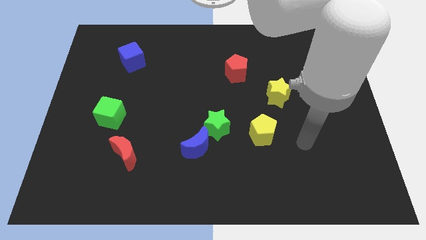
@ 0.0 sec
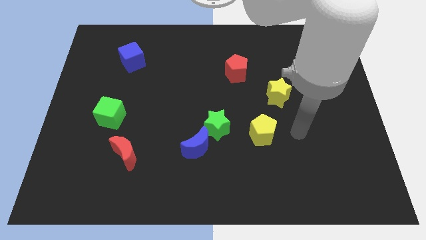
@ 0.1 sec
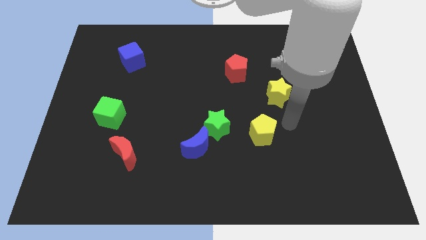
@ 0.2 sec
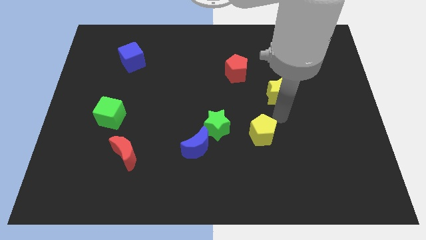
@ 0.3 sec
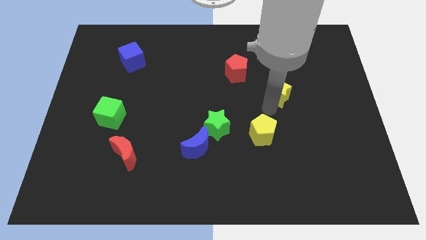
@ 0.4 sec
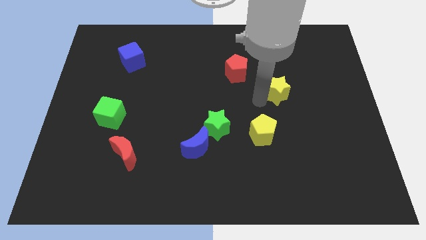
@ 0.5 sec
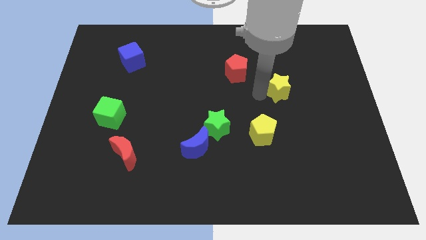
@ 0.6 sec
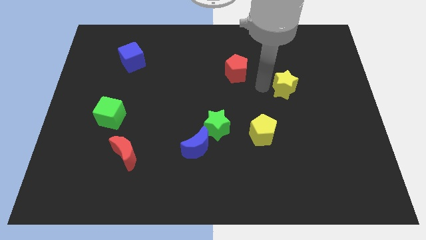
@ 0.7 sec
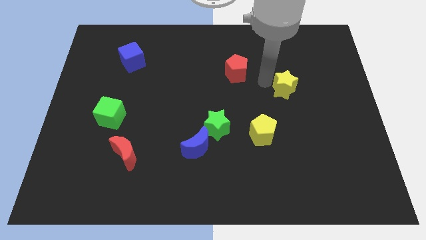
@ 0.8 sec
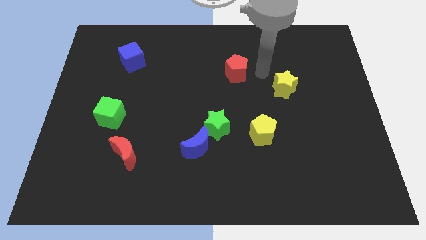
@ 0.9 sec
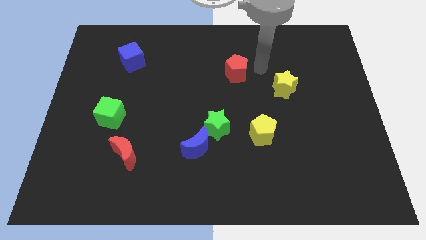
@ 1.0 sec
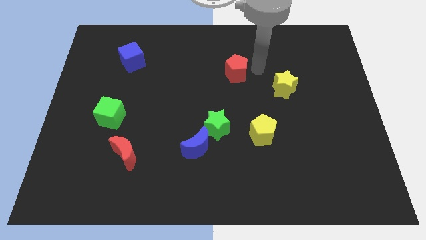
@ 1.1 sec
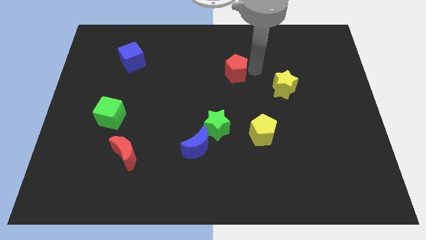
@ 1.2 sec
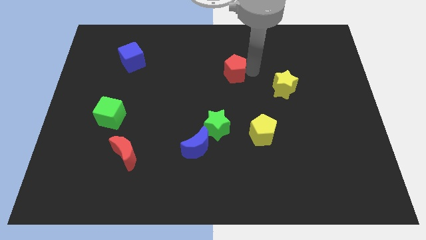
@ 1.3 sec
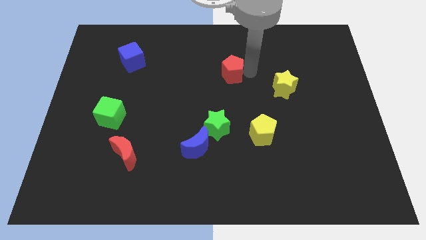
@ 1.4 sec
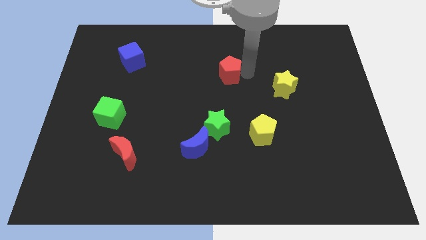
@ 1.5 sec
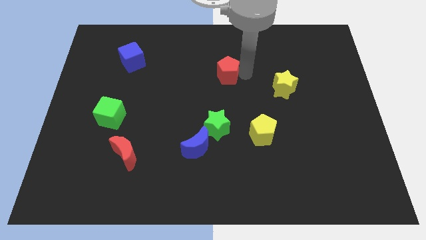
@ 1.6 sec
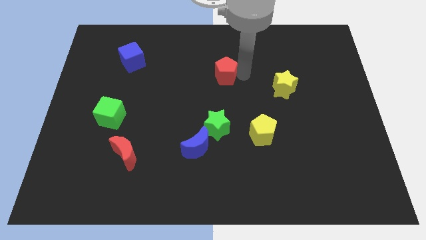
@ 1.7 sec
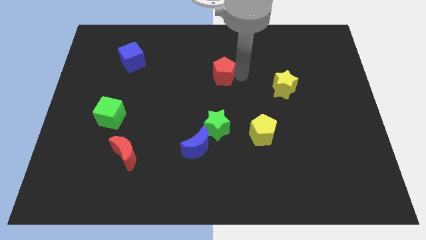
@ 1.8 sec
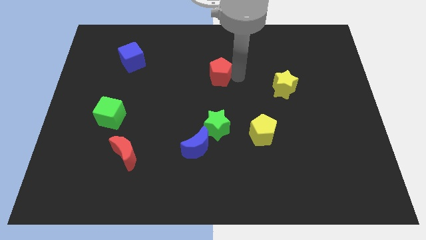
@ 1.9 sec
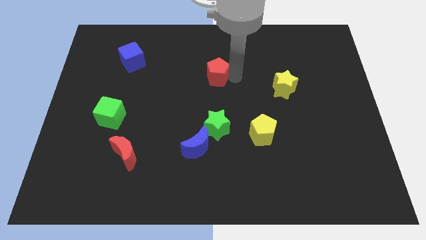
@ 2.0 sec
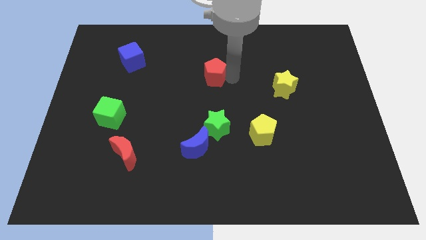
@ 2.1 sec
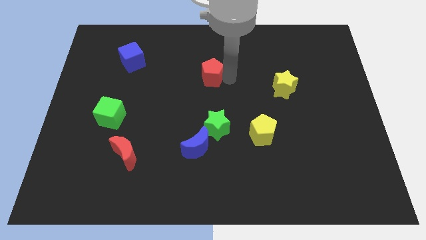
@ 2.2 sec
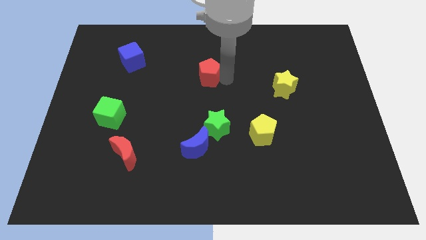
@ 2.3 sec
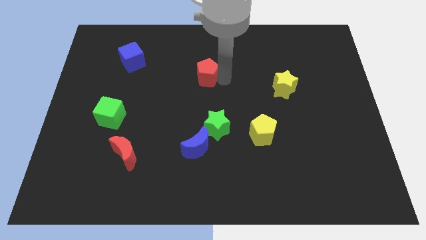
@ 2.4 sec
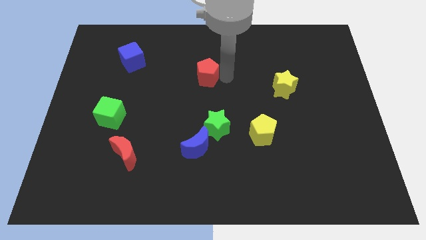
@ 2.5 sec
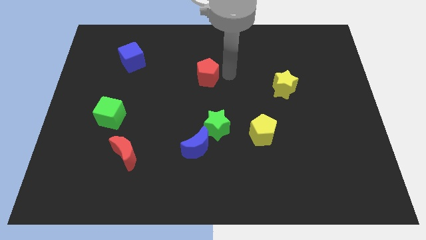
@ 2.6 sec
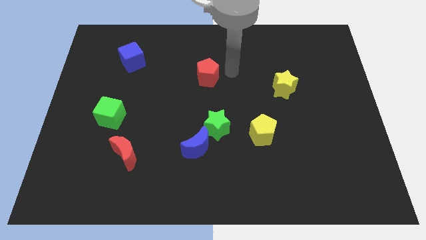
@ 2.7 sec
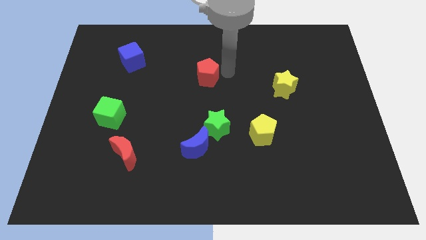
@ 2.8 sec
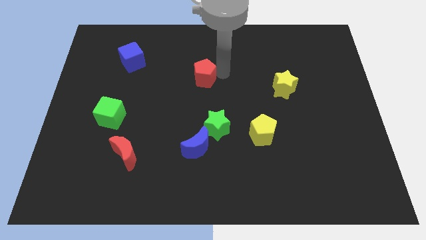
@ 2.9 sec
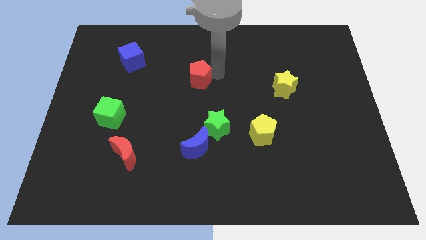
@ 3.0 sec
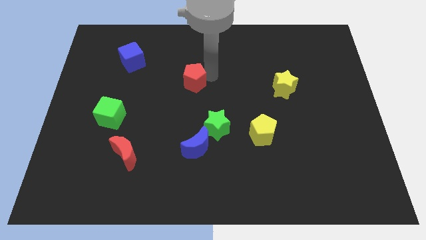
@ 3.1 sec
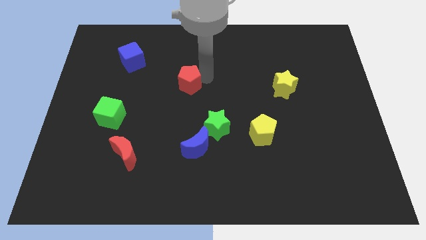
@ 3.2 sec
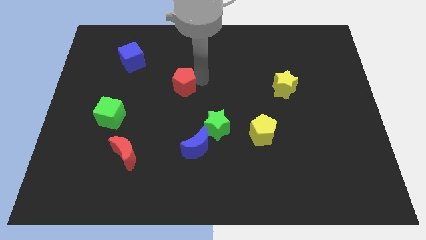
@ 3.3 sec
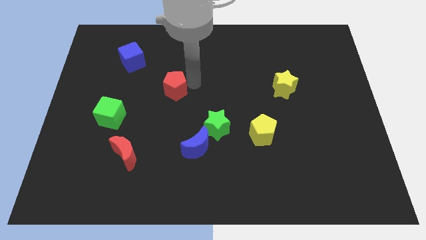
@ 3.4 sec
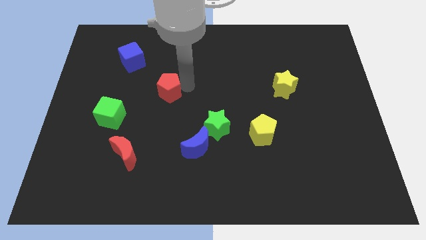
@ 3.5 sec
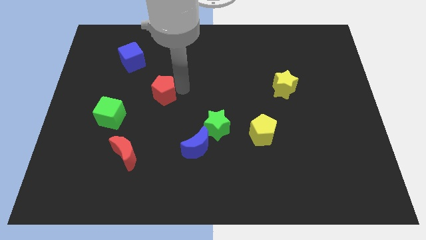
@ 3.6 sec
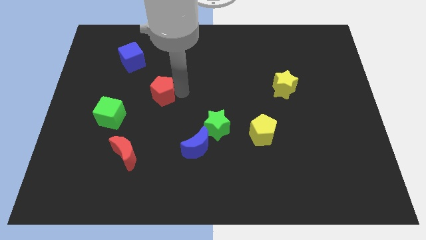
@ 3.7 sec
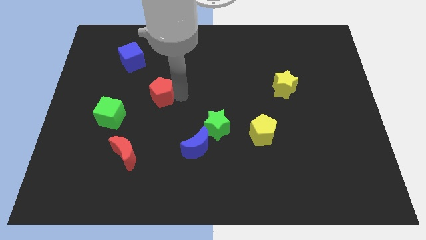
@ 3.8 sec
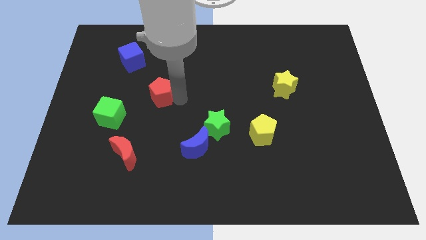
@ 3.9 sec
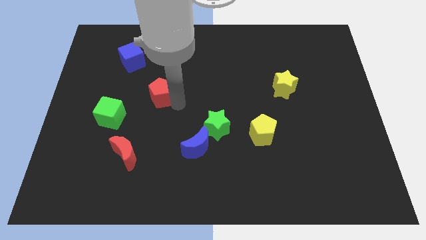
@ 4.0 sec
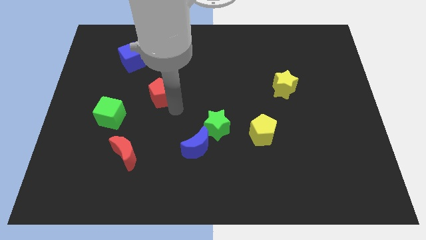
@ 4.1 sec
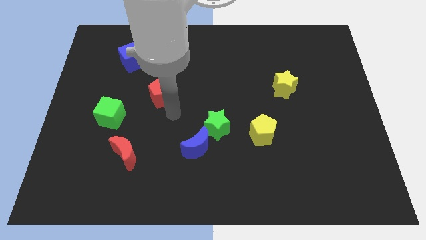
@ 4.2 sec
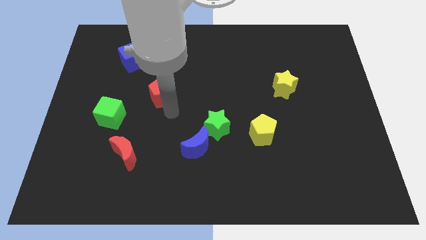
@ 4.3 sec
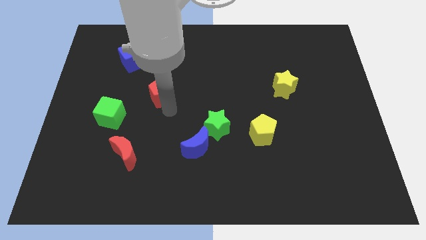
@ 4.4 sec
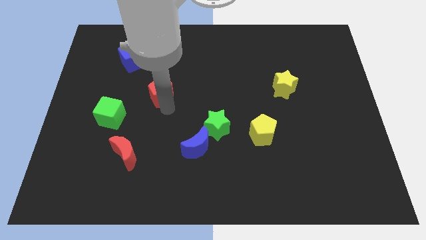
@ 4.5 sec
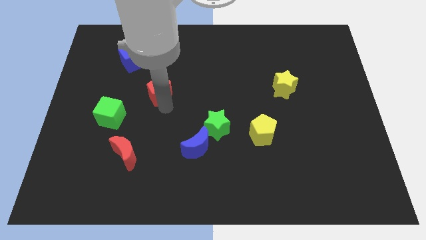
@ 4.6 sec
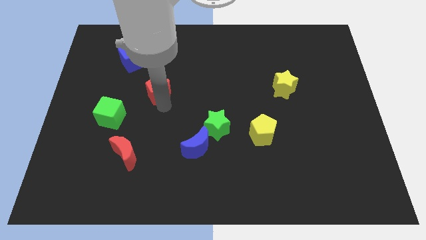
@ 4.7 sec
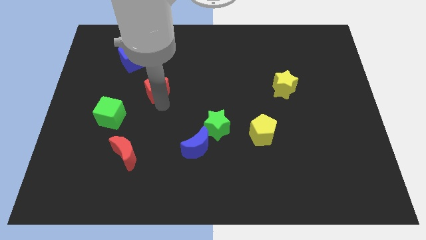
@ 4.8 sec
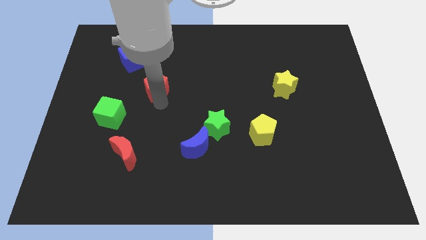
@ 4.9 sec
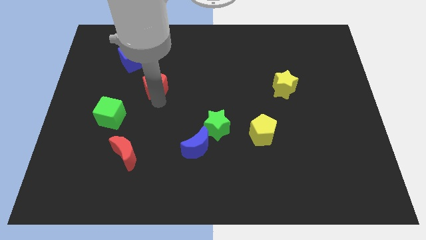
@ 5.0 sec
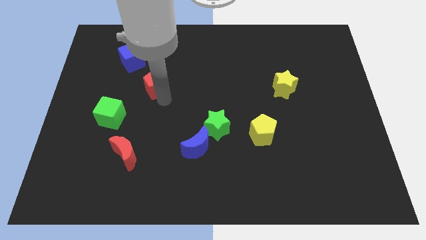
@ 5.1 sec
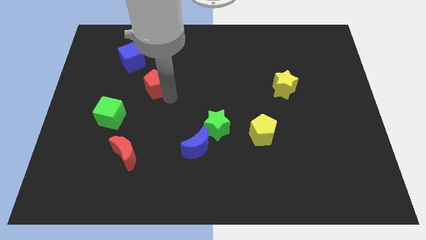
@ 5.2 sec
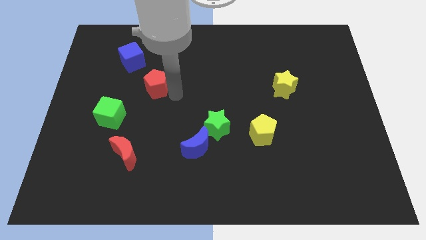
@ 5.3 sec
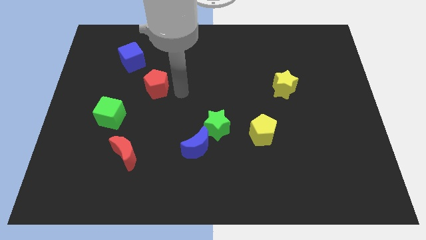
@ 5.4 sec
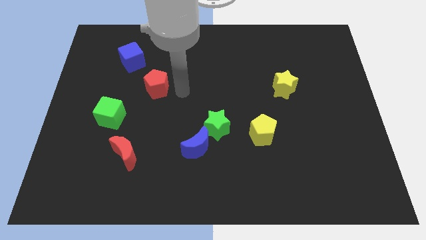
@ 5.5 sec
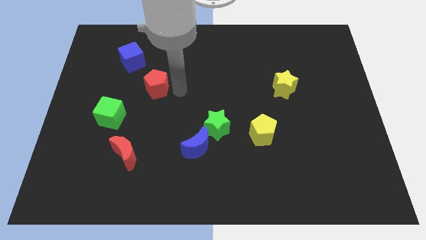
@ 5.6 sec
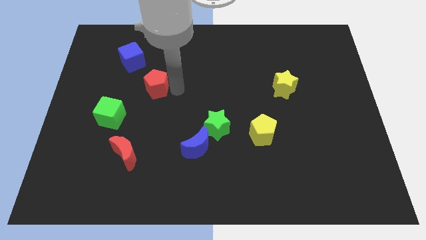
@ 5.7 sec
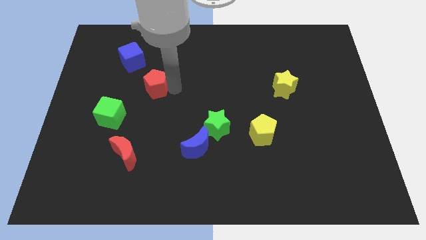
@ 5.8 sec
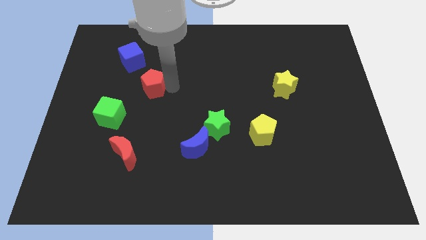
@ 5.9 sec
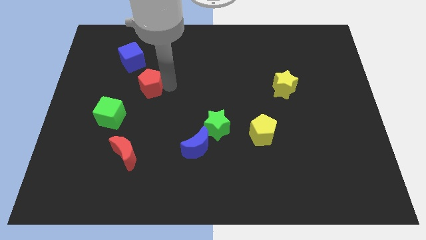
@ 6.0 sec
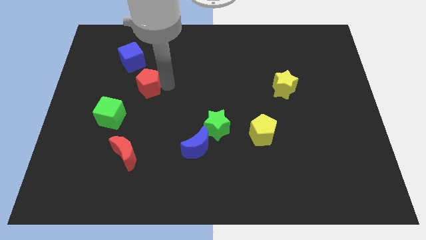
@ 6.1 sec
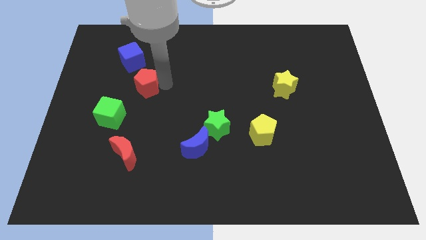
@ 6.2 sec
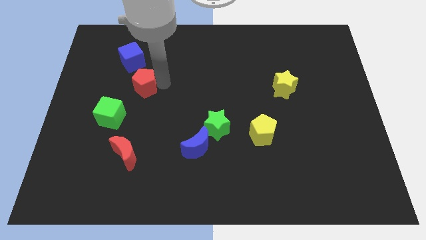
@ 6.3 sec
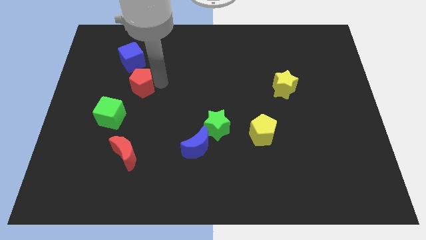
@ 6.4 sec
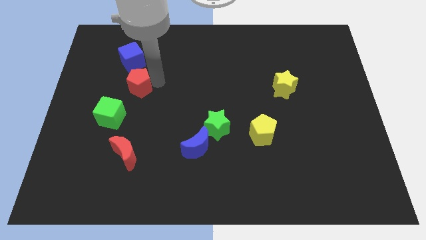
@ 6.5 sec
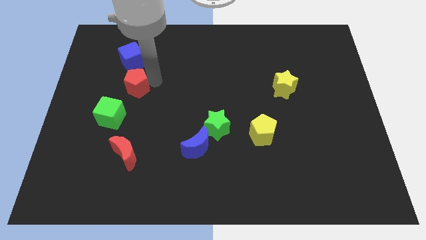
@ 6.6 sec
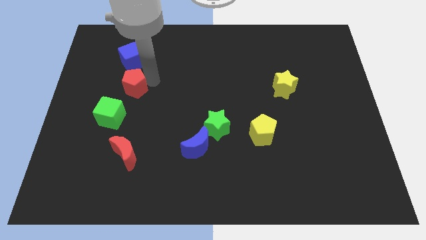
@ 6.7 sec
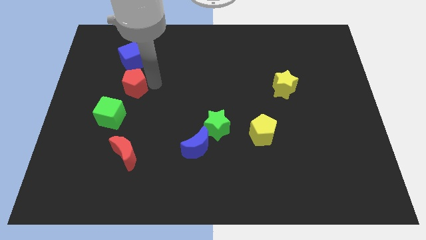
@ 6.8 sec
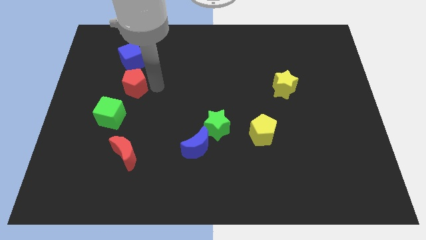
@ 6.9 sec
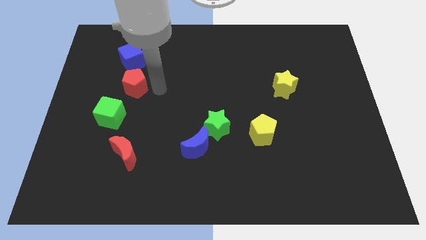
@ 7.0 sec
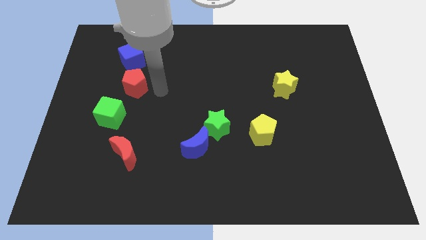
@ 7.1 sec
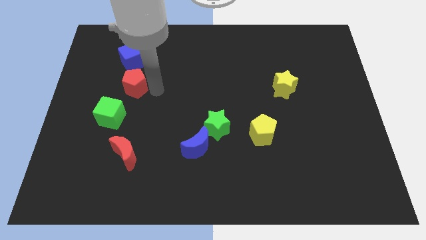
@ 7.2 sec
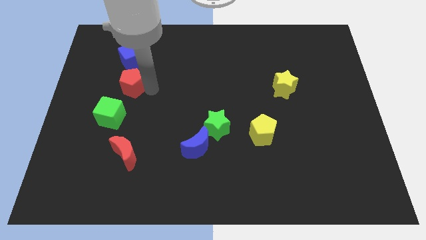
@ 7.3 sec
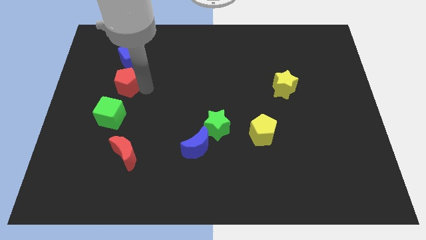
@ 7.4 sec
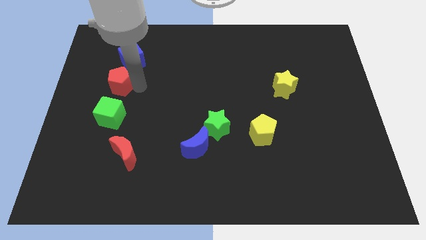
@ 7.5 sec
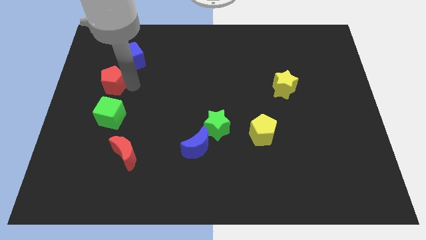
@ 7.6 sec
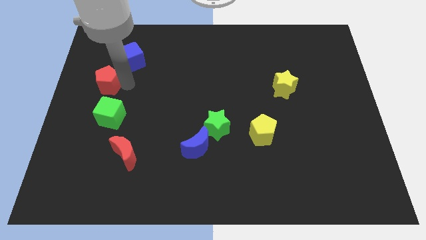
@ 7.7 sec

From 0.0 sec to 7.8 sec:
move the red pentagon to the left side
